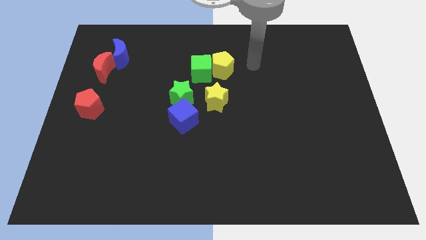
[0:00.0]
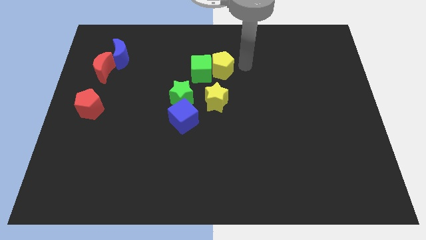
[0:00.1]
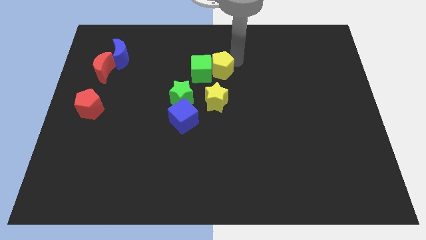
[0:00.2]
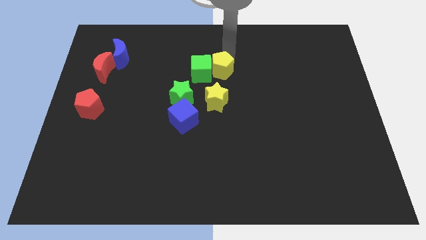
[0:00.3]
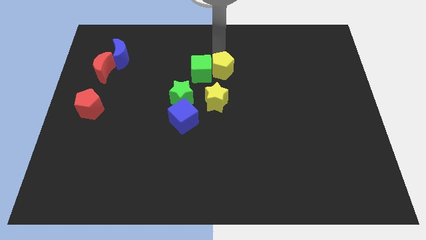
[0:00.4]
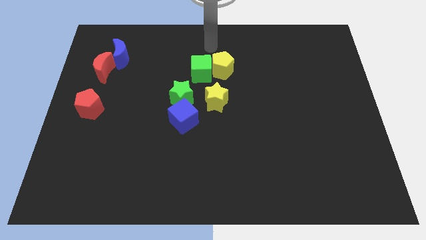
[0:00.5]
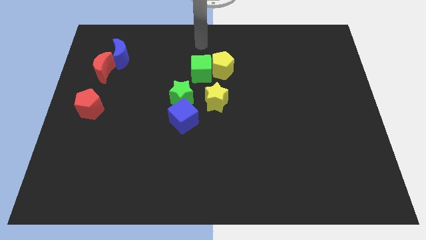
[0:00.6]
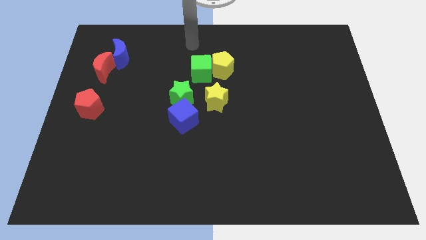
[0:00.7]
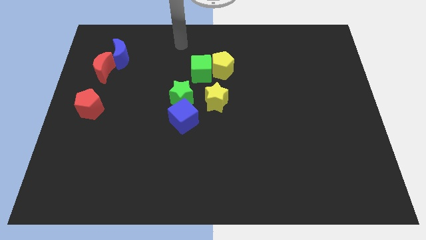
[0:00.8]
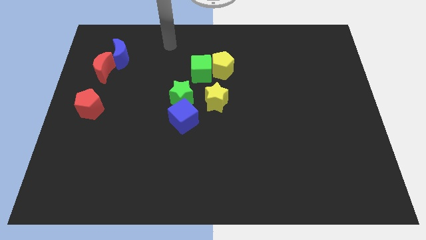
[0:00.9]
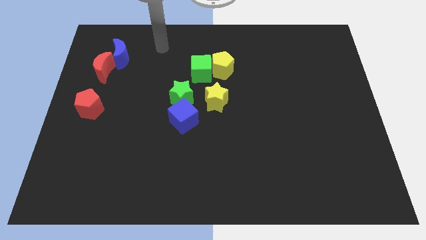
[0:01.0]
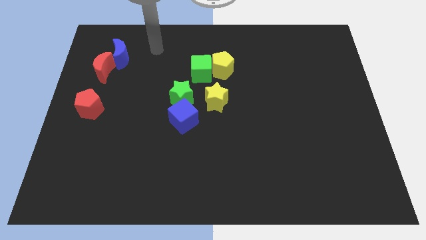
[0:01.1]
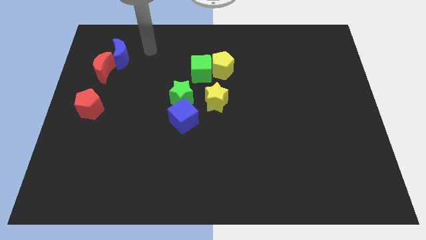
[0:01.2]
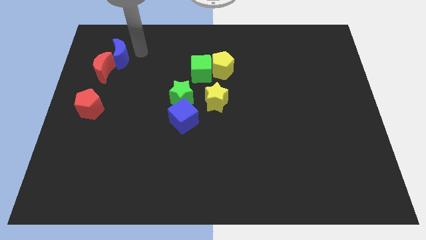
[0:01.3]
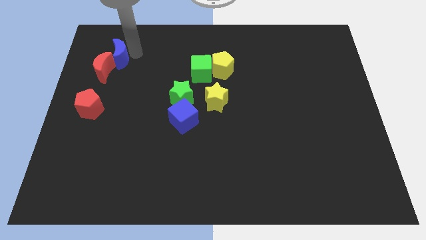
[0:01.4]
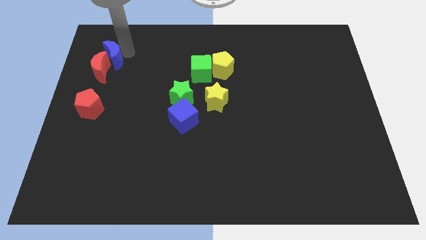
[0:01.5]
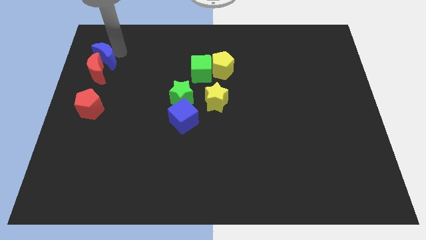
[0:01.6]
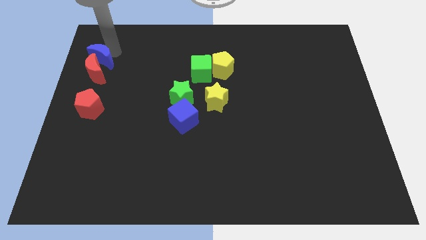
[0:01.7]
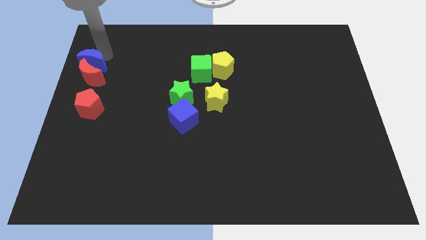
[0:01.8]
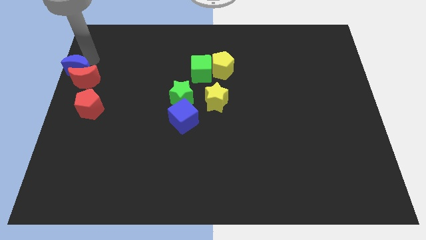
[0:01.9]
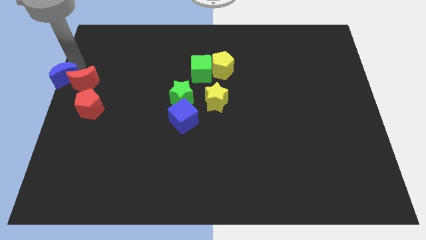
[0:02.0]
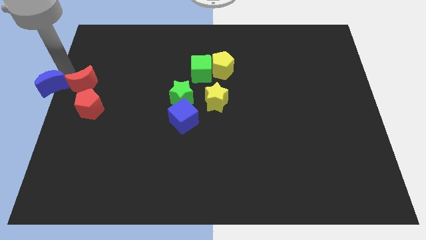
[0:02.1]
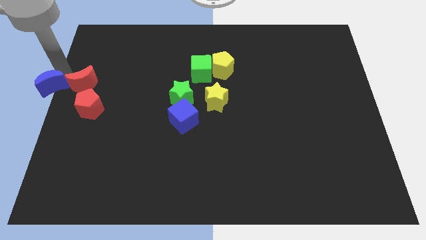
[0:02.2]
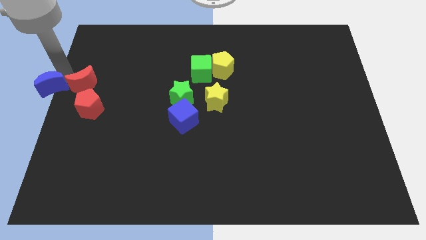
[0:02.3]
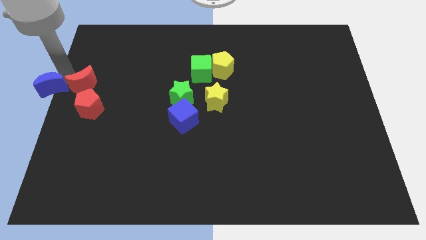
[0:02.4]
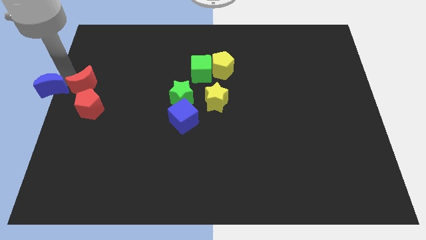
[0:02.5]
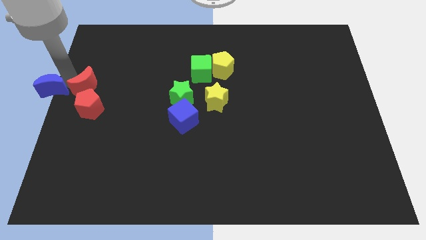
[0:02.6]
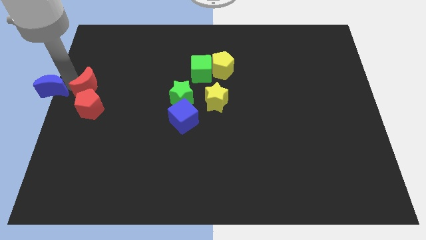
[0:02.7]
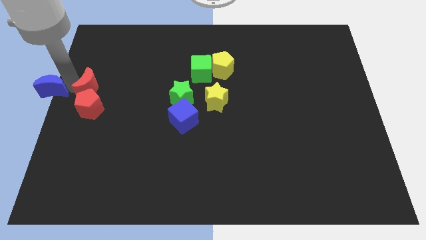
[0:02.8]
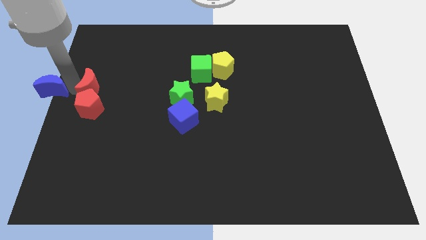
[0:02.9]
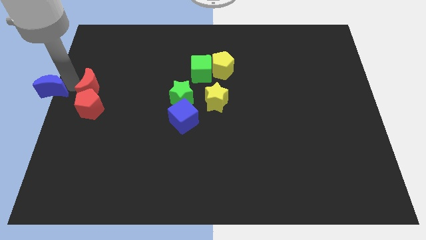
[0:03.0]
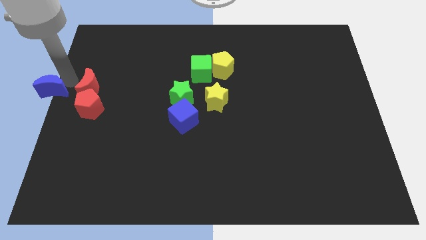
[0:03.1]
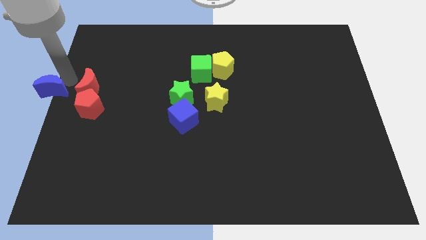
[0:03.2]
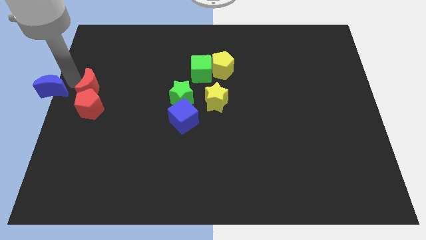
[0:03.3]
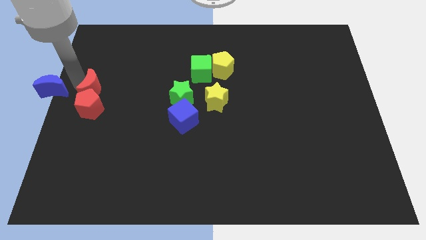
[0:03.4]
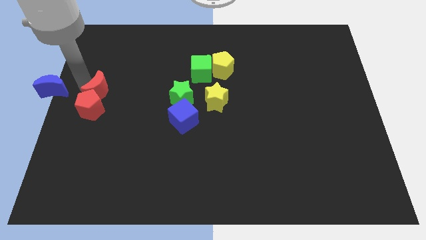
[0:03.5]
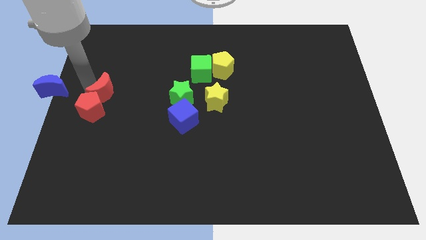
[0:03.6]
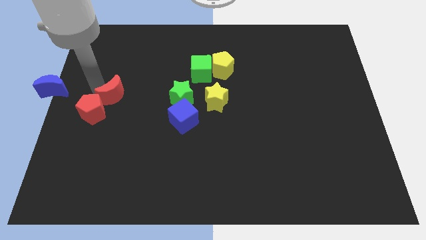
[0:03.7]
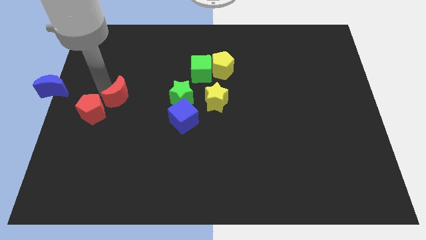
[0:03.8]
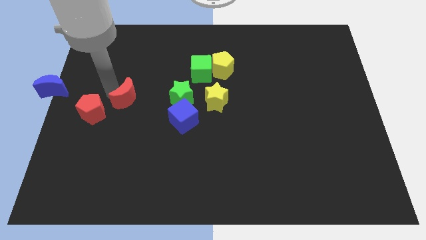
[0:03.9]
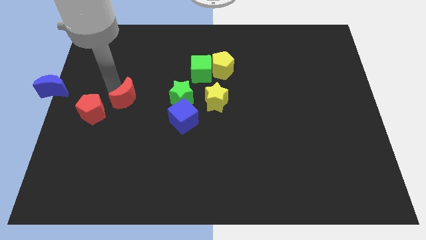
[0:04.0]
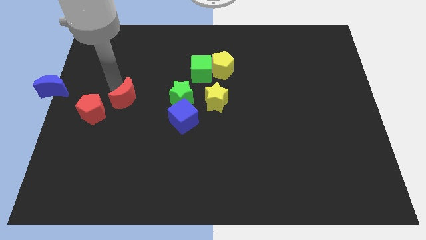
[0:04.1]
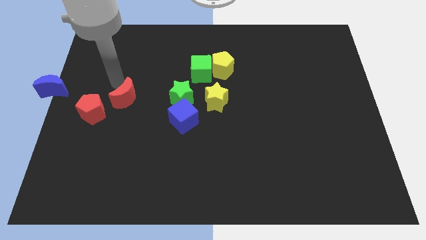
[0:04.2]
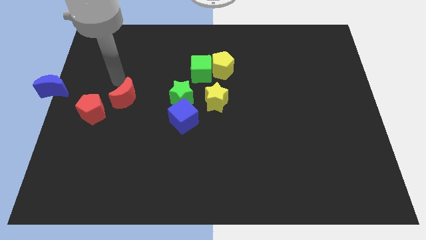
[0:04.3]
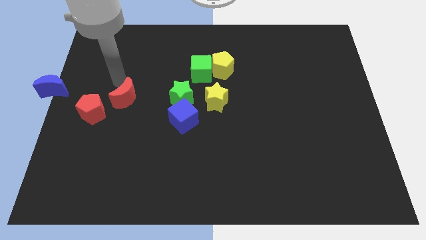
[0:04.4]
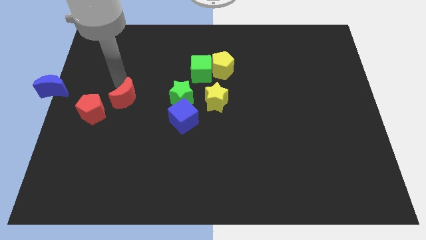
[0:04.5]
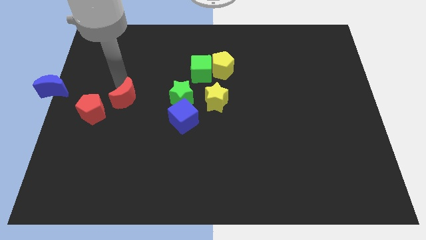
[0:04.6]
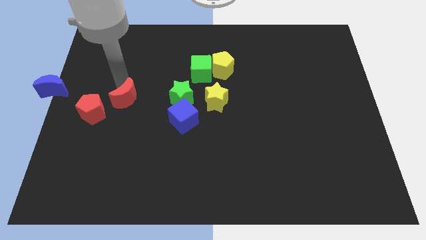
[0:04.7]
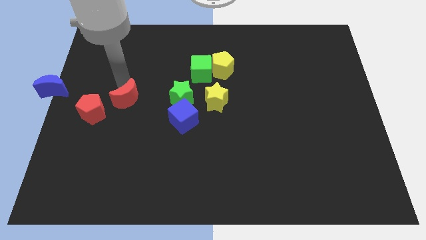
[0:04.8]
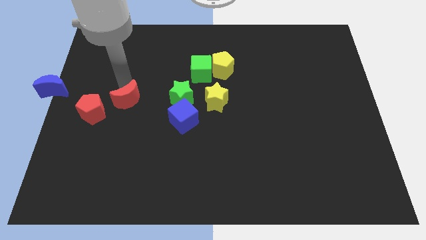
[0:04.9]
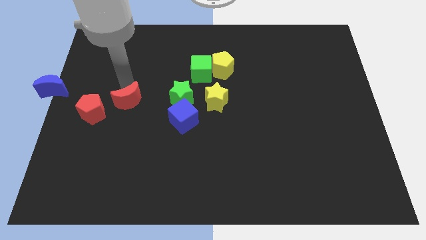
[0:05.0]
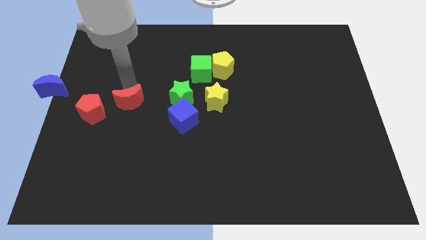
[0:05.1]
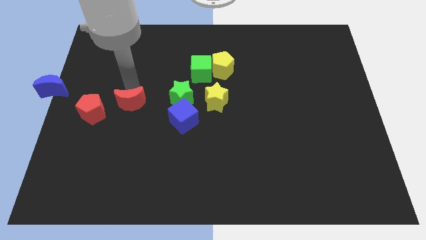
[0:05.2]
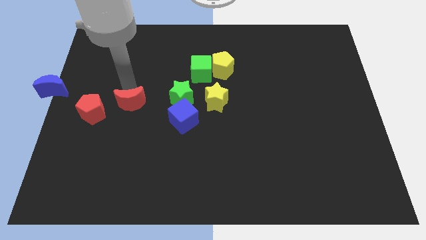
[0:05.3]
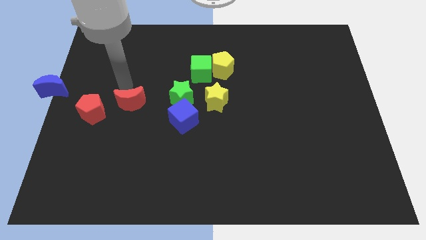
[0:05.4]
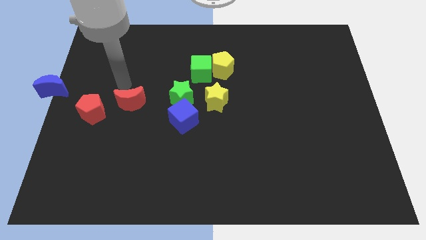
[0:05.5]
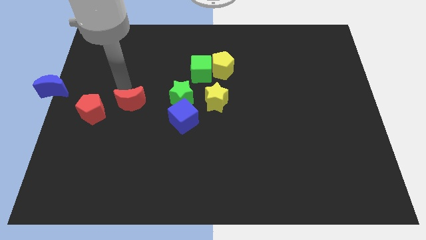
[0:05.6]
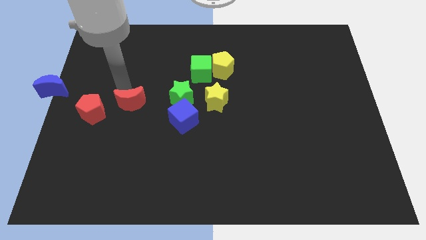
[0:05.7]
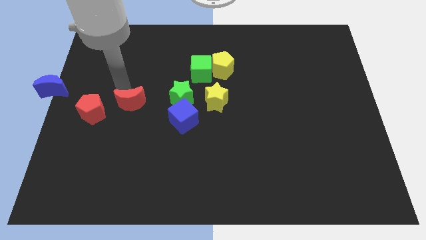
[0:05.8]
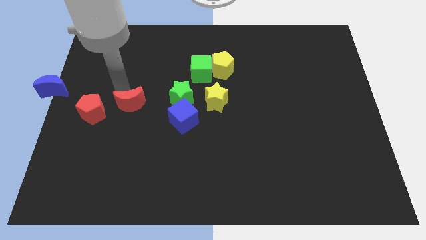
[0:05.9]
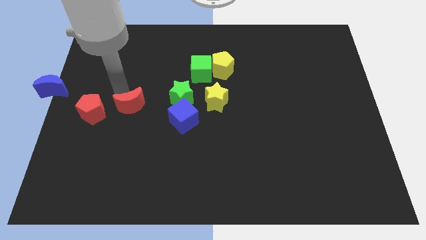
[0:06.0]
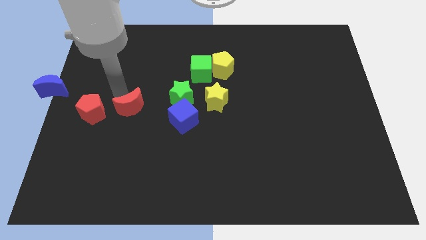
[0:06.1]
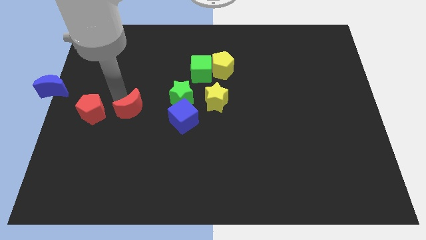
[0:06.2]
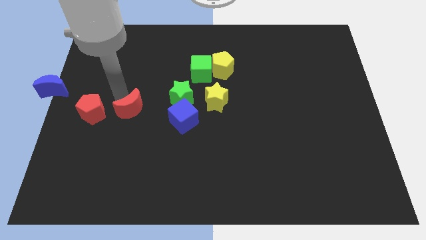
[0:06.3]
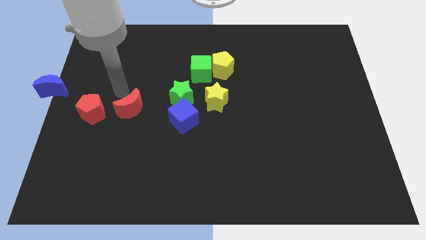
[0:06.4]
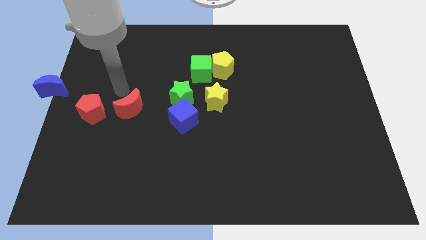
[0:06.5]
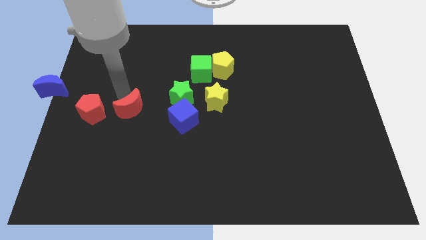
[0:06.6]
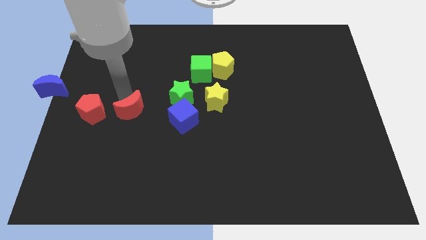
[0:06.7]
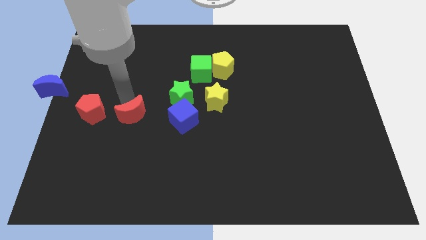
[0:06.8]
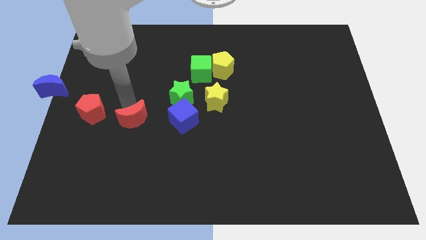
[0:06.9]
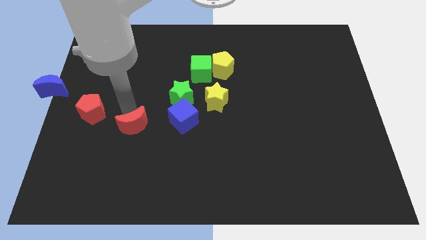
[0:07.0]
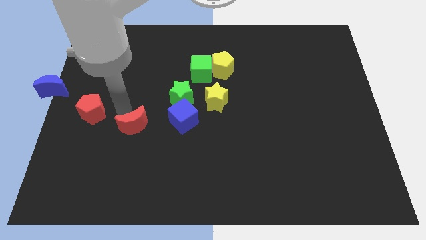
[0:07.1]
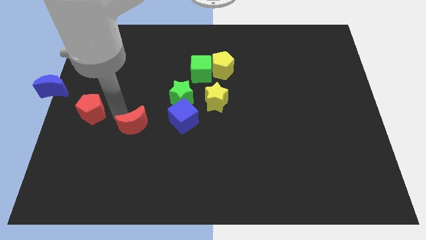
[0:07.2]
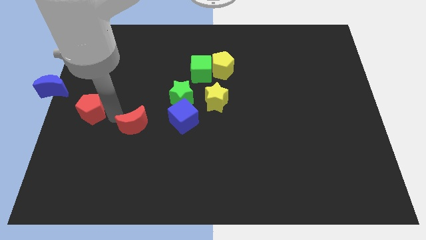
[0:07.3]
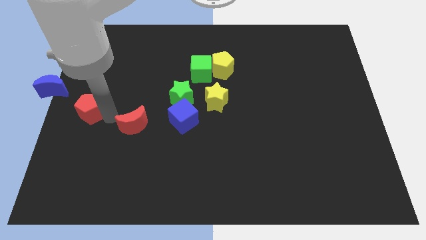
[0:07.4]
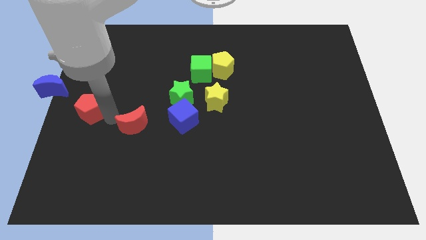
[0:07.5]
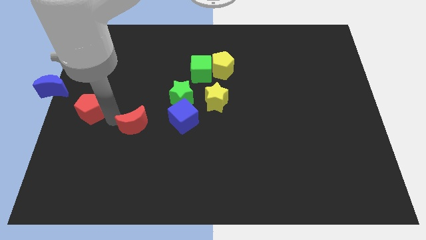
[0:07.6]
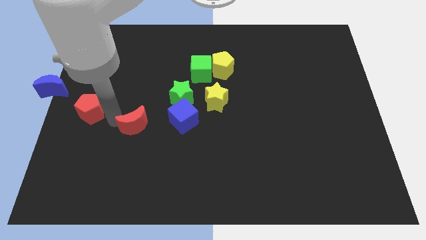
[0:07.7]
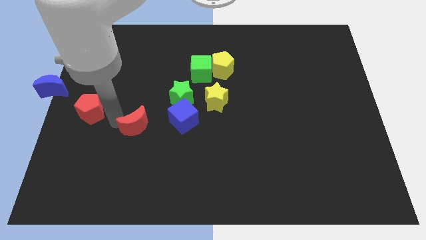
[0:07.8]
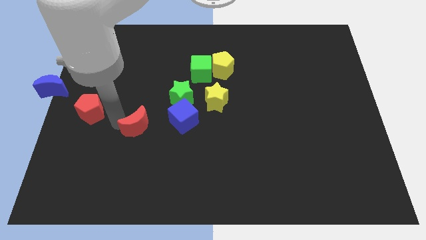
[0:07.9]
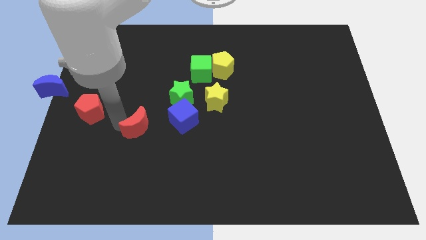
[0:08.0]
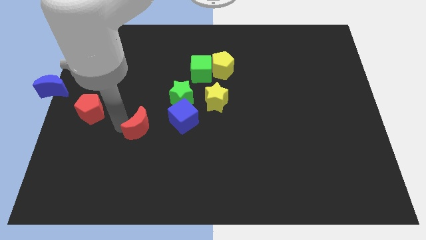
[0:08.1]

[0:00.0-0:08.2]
slide the red moon downwards and right
